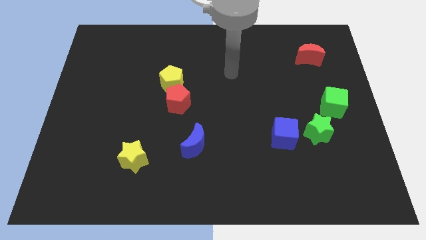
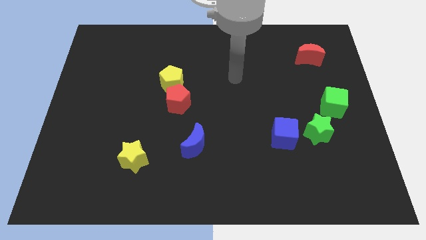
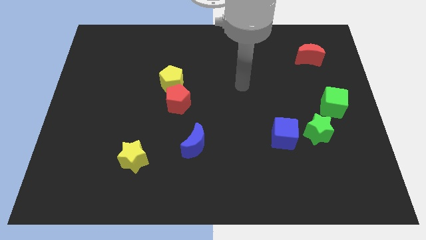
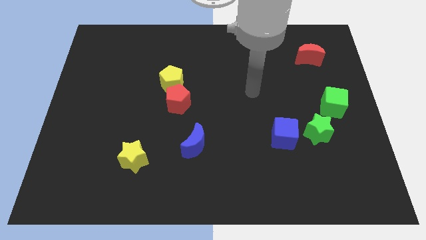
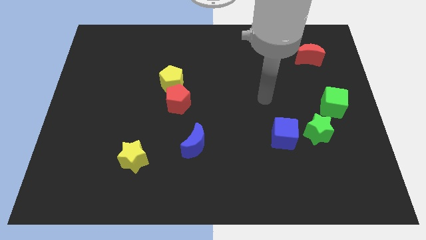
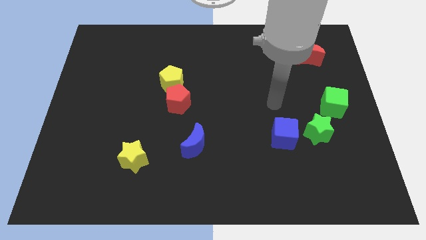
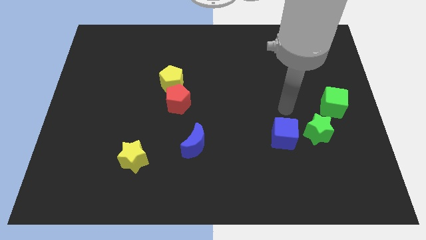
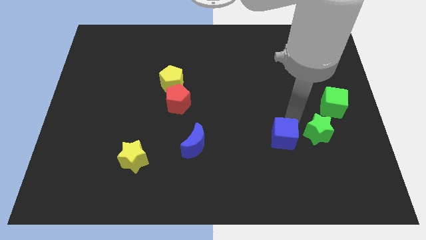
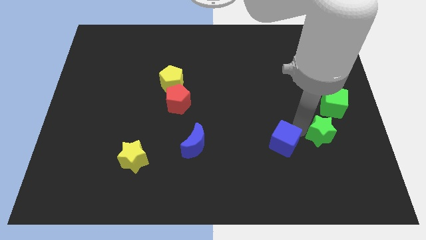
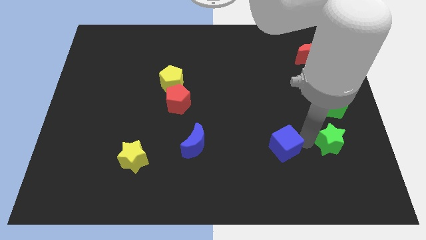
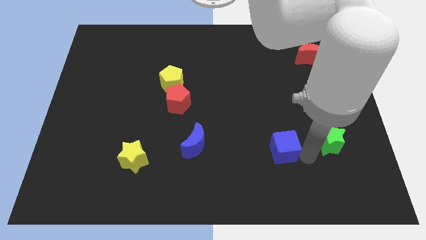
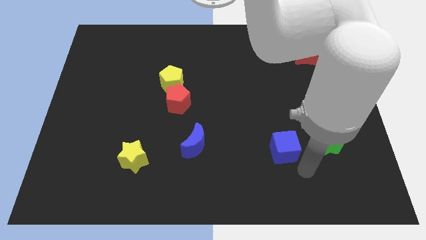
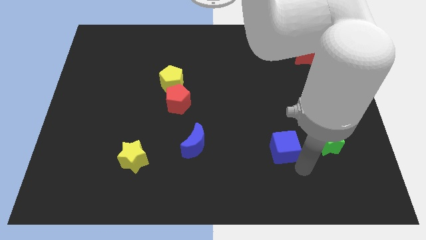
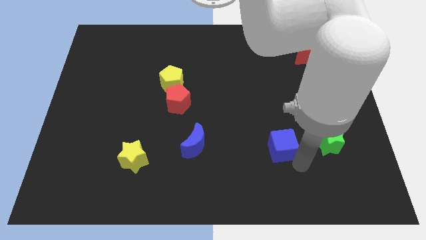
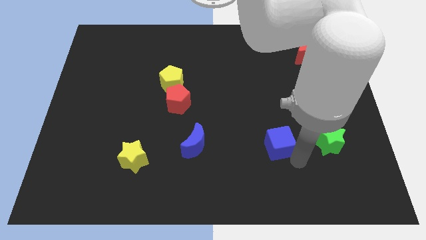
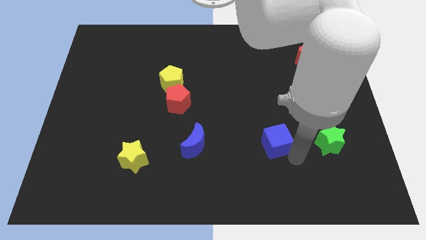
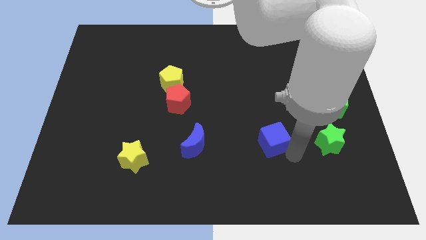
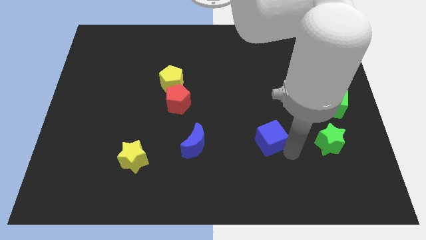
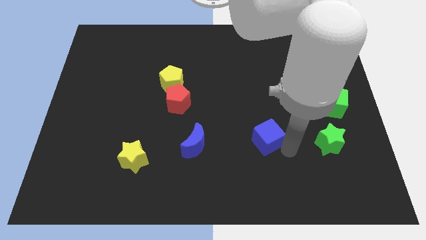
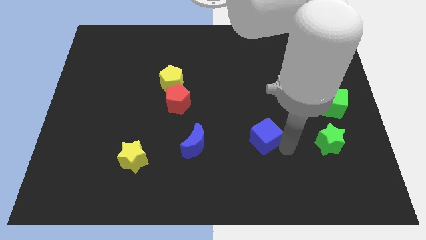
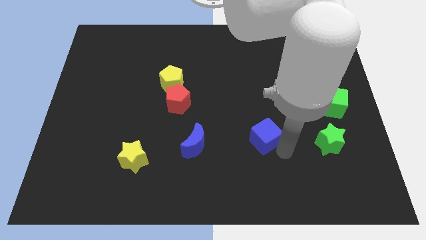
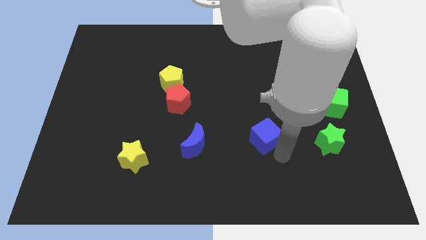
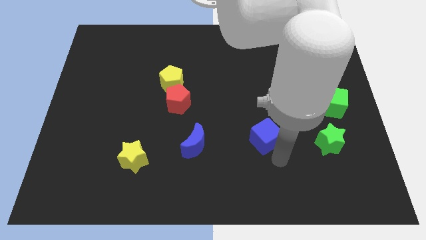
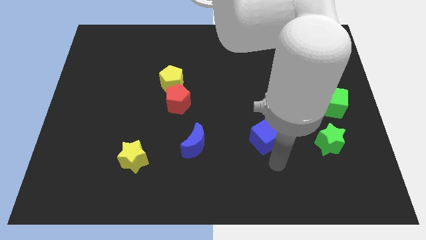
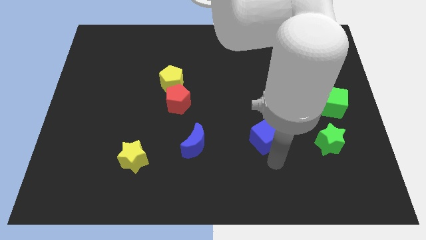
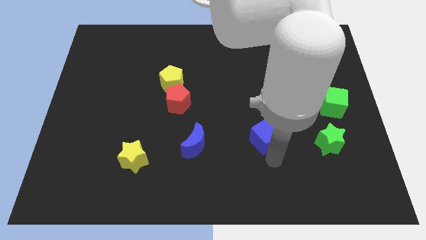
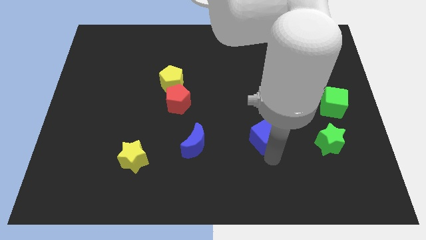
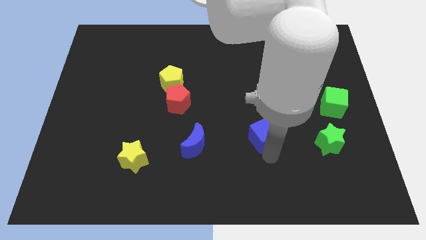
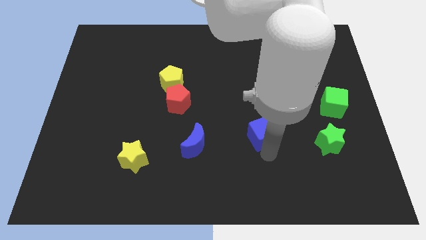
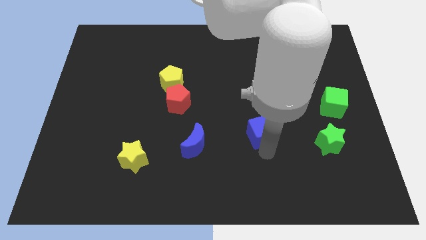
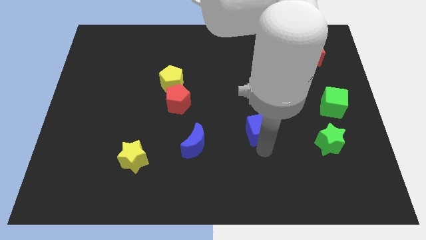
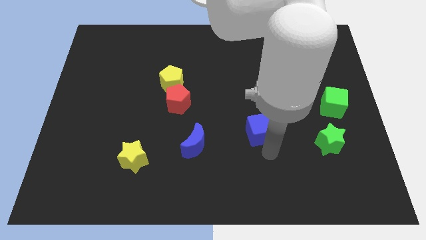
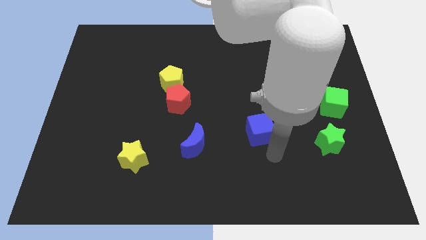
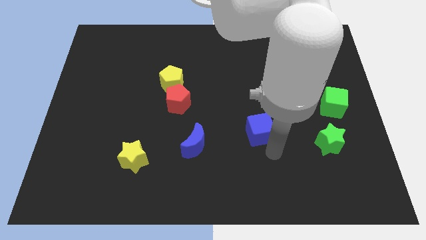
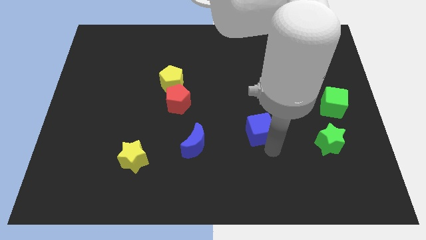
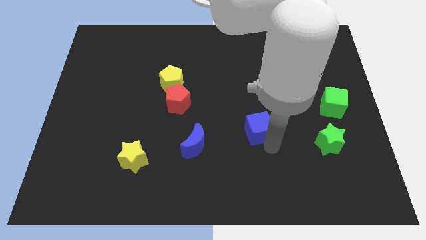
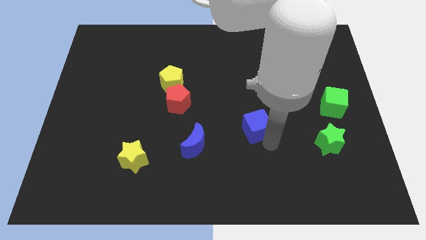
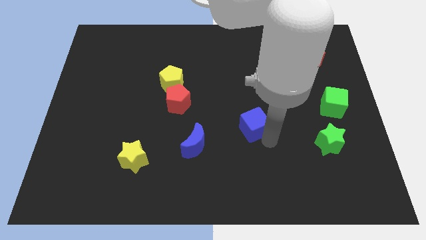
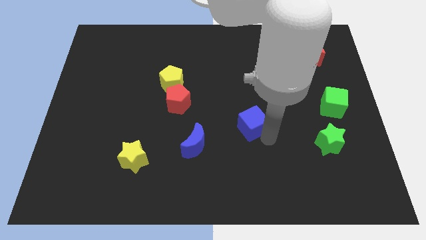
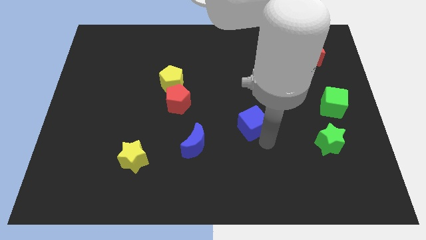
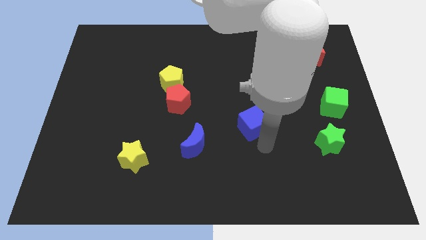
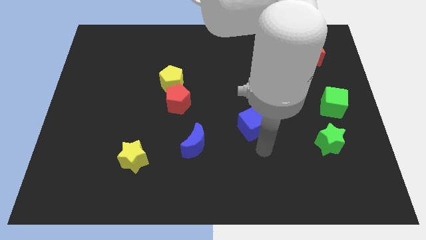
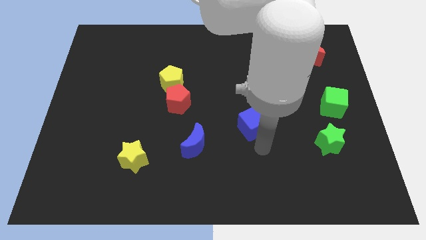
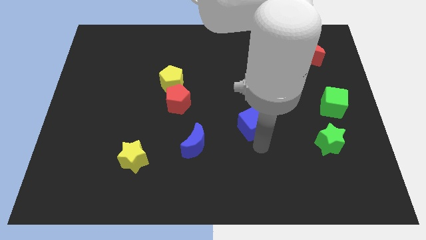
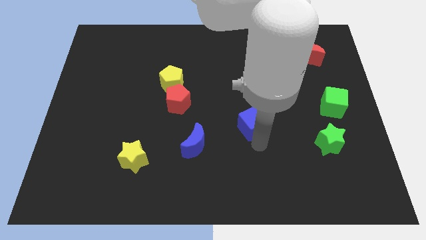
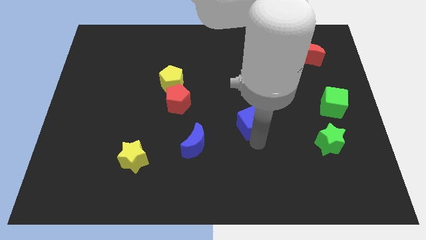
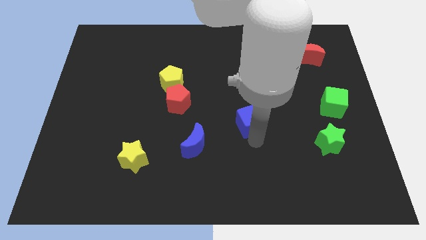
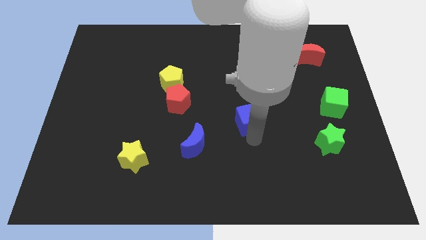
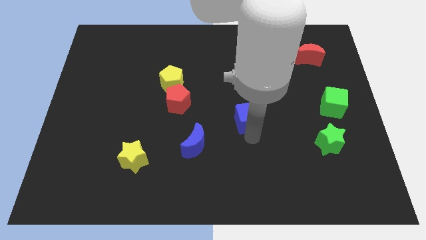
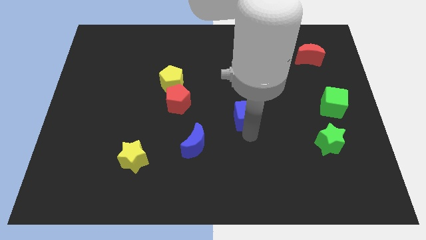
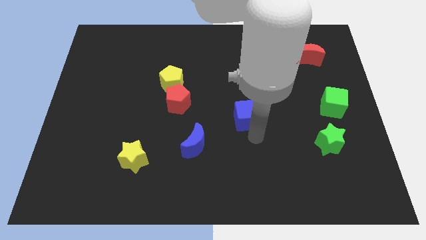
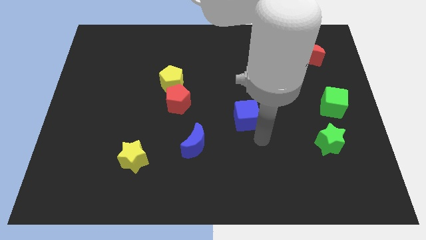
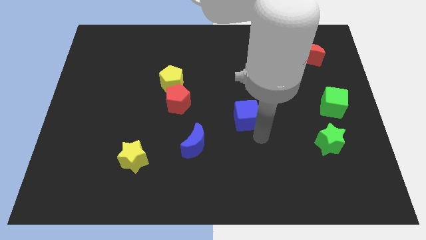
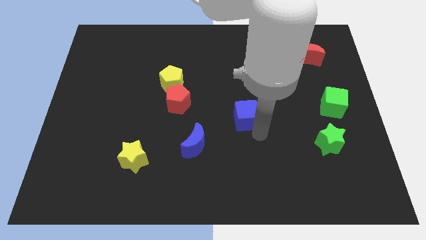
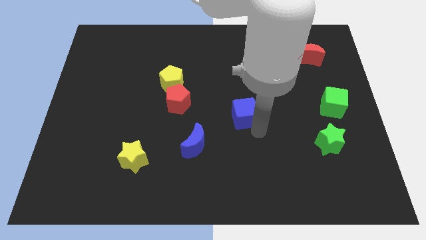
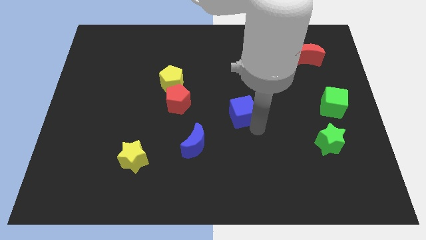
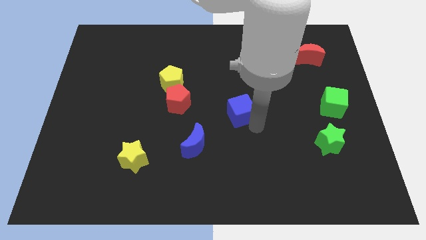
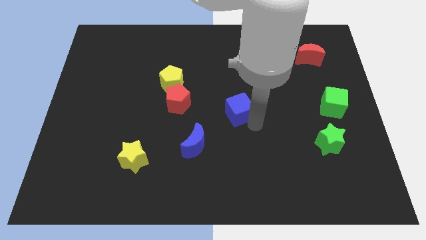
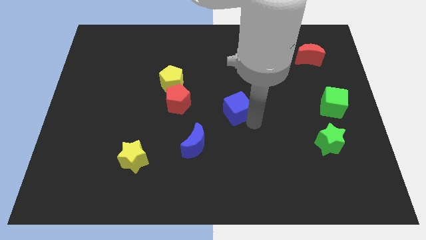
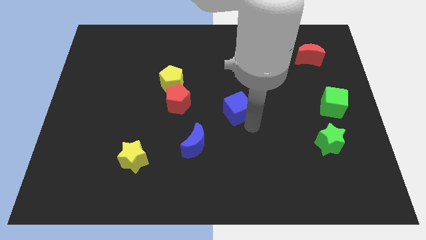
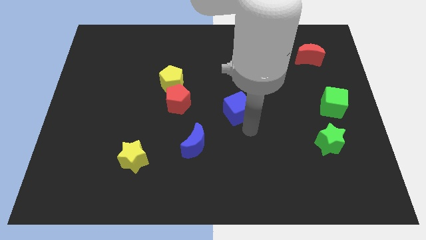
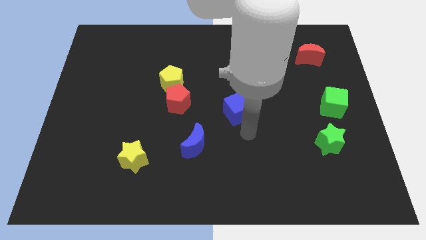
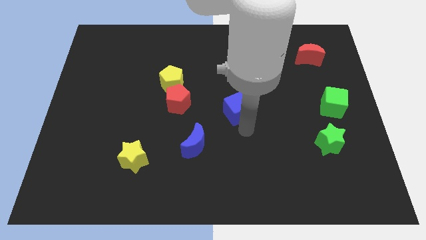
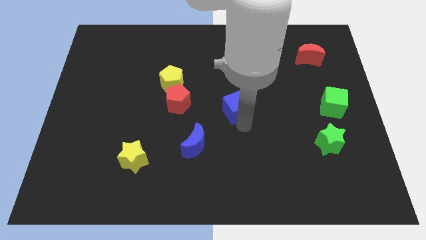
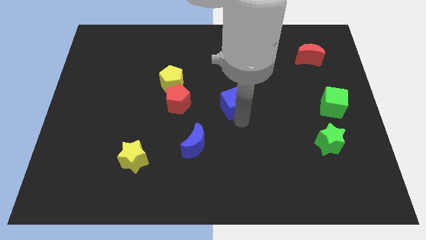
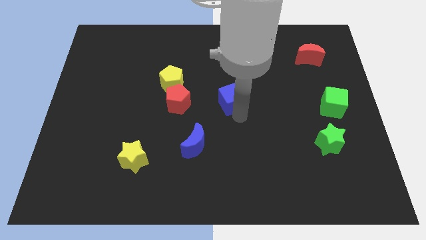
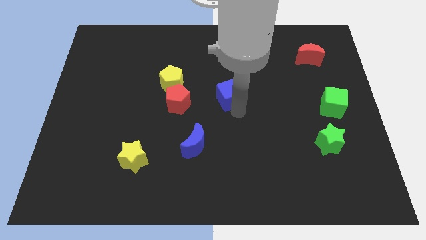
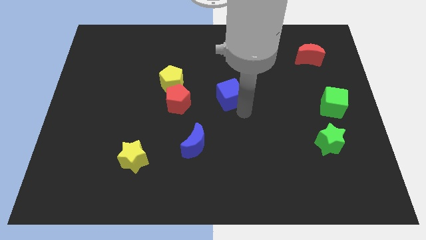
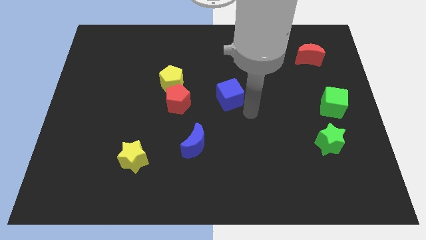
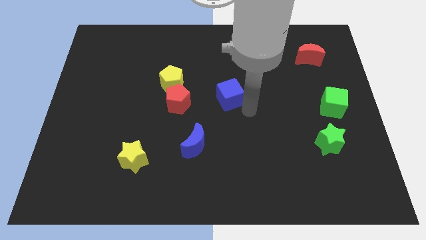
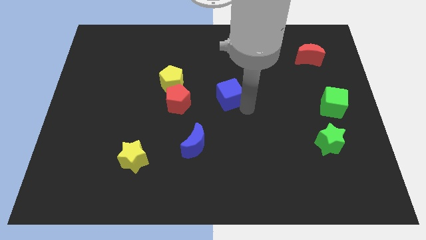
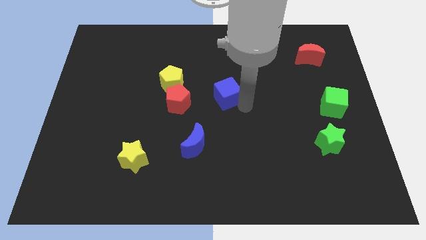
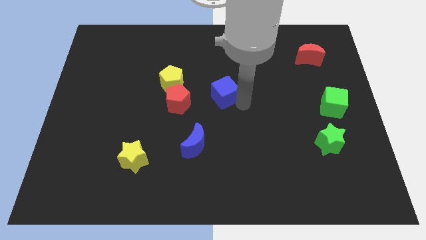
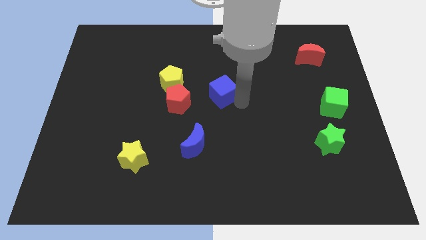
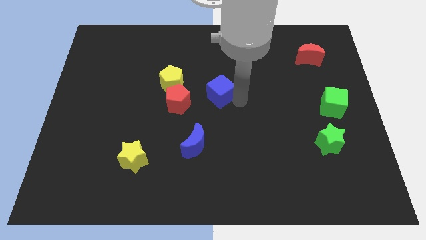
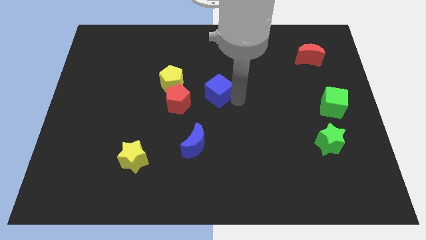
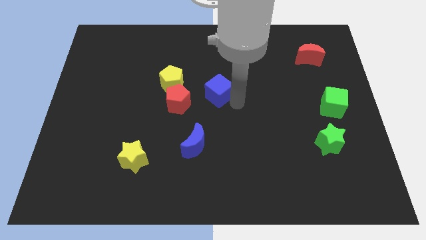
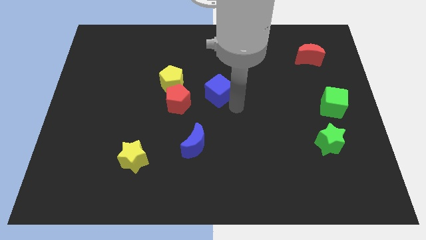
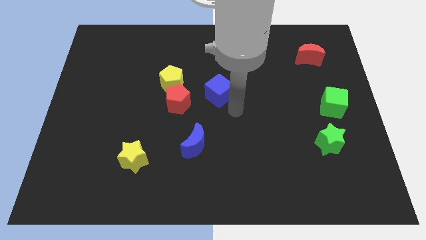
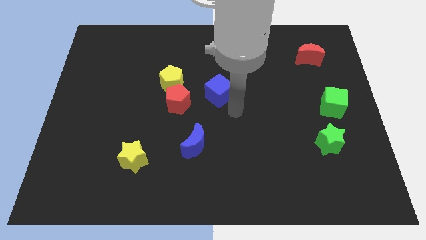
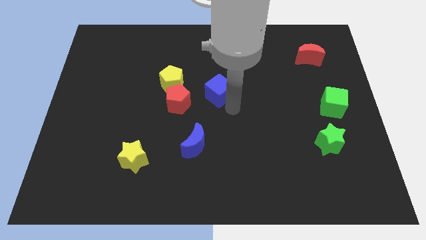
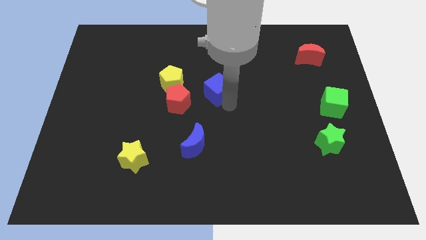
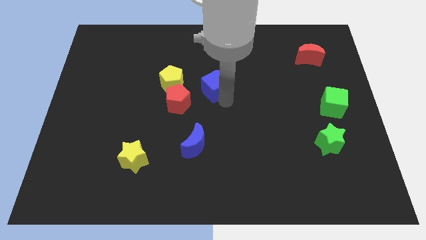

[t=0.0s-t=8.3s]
push the blue cube upwards and then to the left
